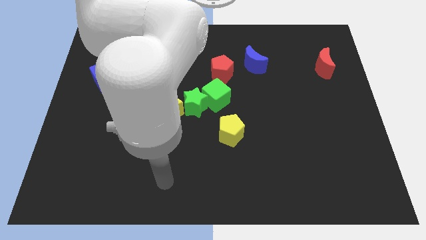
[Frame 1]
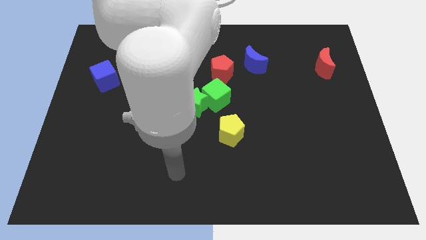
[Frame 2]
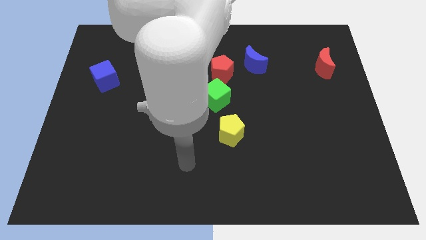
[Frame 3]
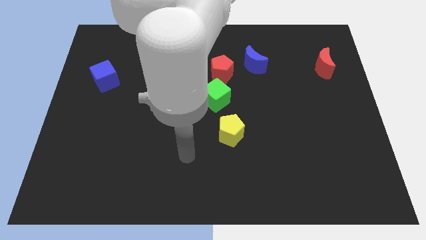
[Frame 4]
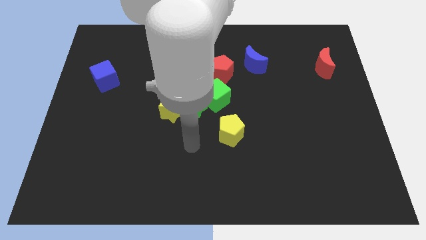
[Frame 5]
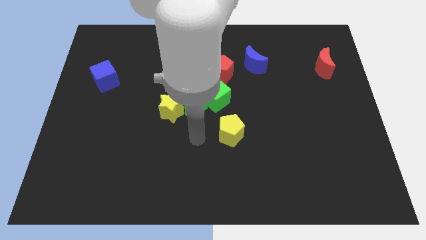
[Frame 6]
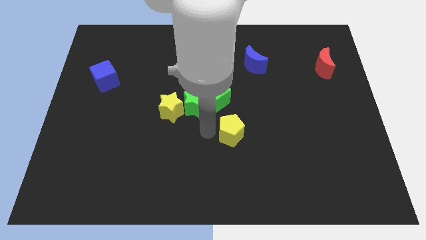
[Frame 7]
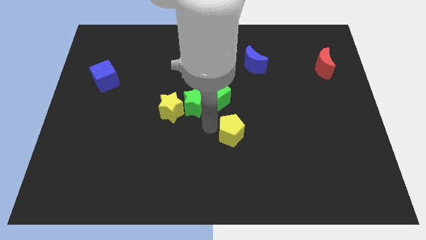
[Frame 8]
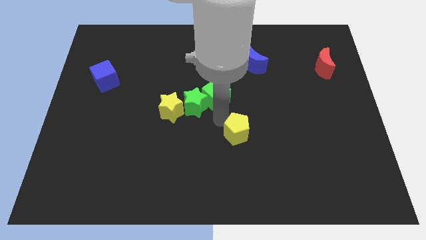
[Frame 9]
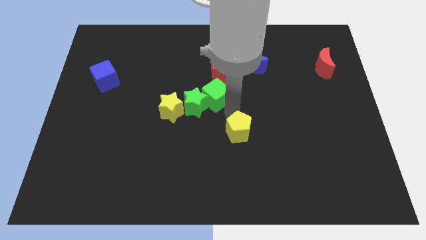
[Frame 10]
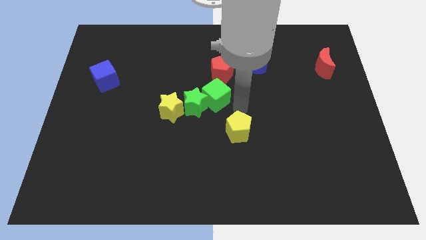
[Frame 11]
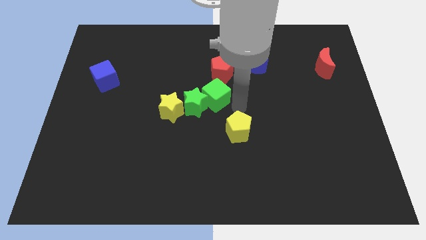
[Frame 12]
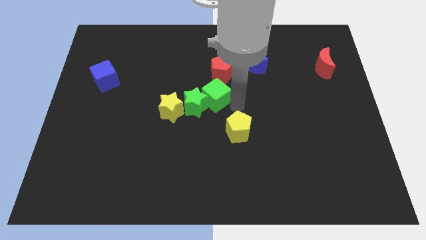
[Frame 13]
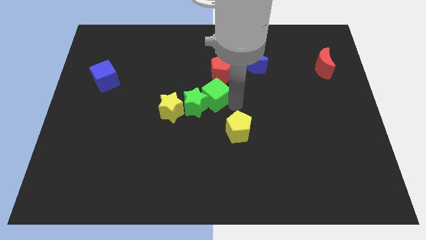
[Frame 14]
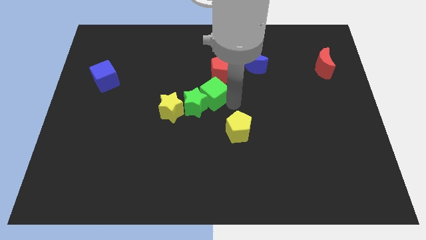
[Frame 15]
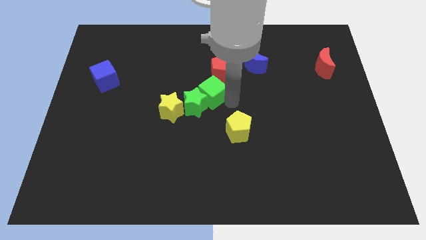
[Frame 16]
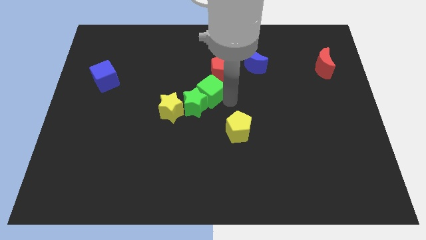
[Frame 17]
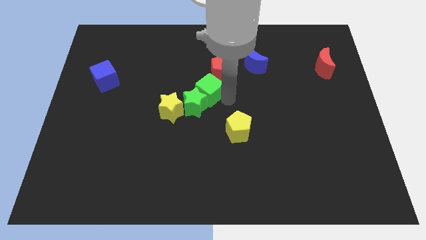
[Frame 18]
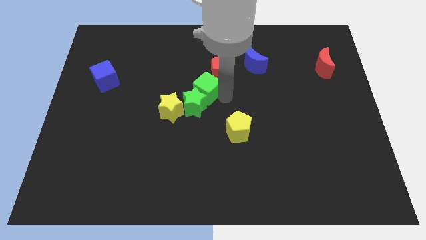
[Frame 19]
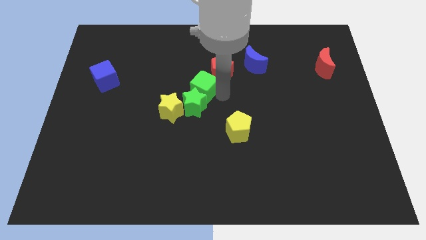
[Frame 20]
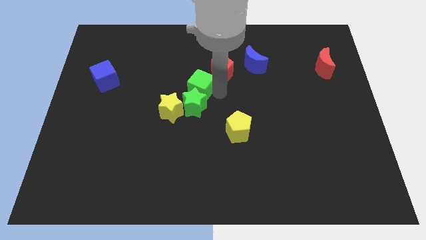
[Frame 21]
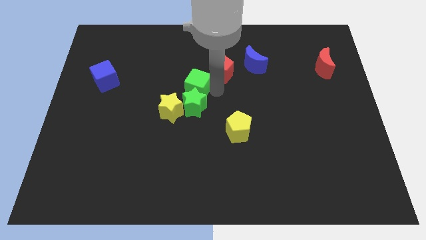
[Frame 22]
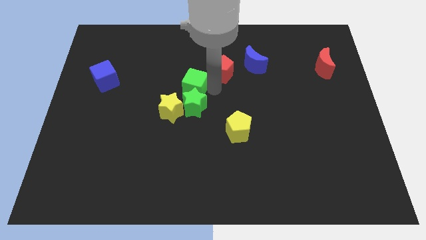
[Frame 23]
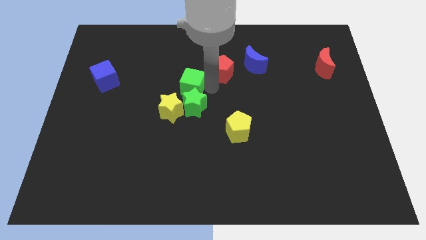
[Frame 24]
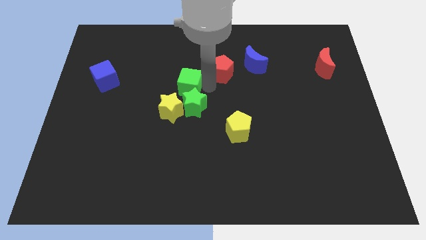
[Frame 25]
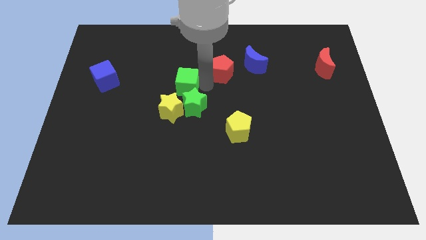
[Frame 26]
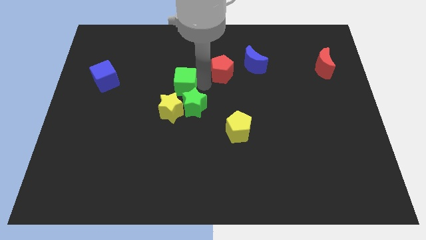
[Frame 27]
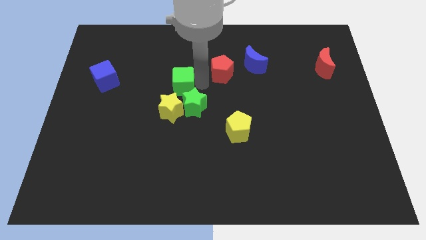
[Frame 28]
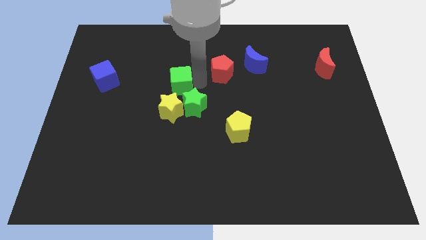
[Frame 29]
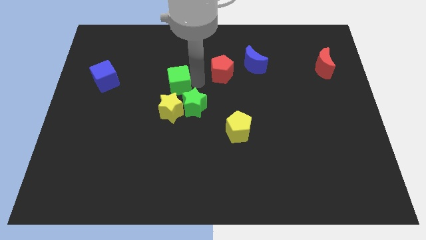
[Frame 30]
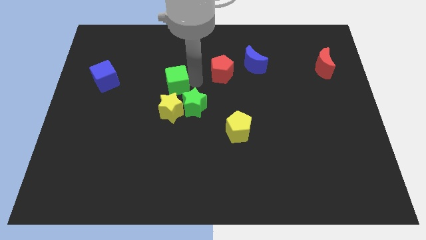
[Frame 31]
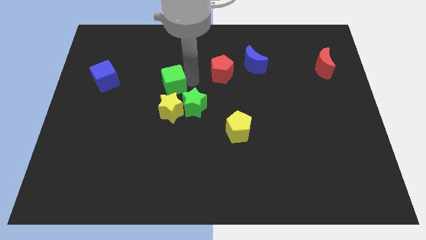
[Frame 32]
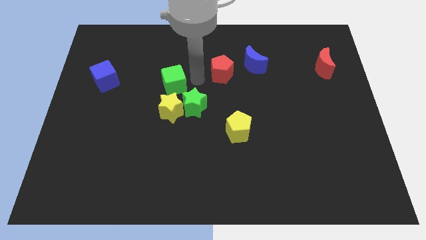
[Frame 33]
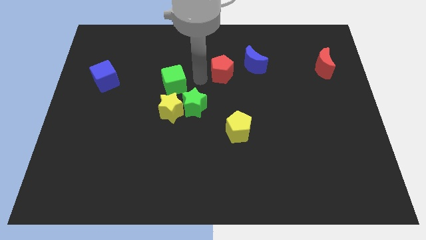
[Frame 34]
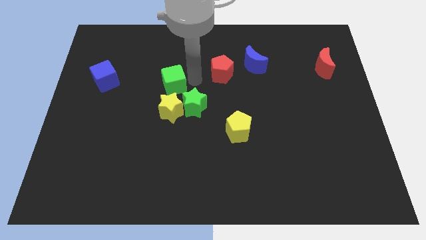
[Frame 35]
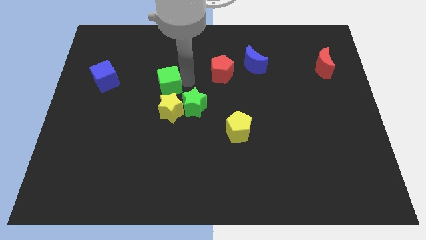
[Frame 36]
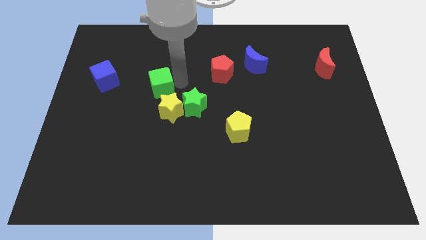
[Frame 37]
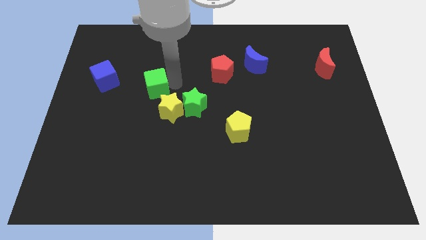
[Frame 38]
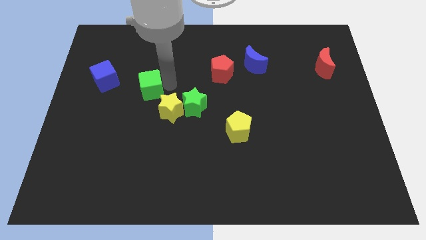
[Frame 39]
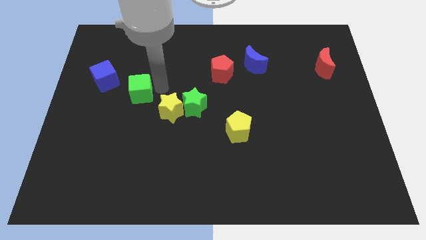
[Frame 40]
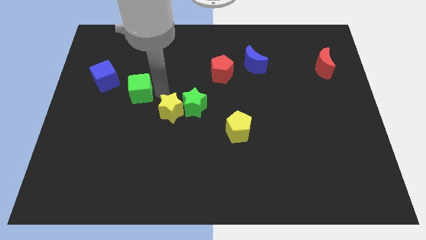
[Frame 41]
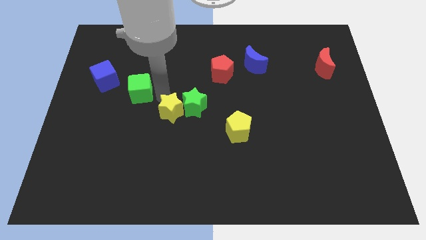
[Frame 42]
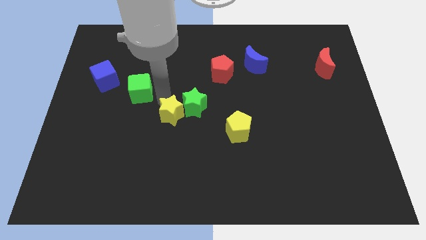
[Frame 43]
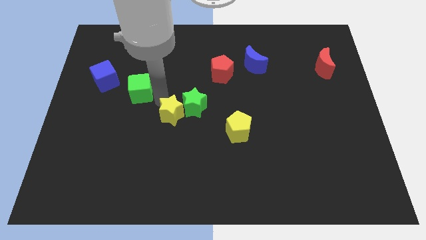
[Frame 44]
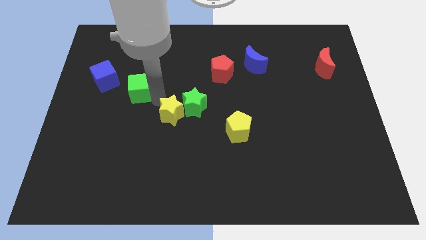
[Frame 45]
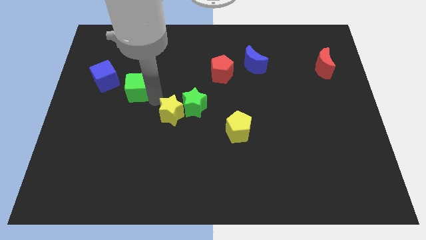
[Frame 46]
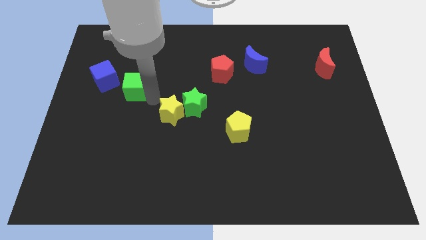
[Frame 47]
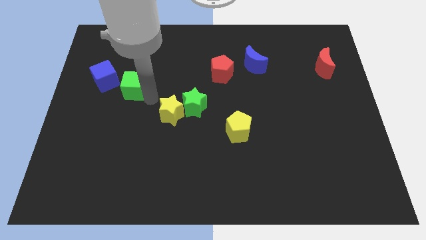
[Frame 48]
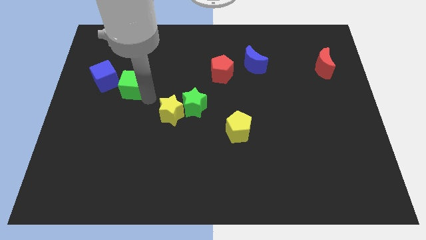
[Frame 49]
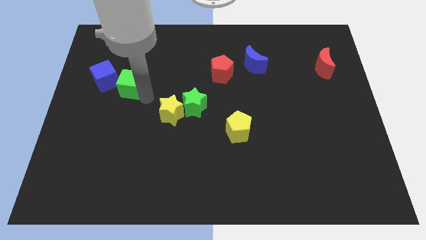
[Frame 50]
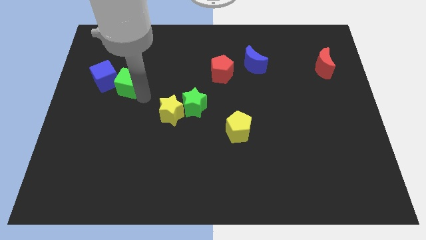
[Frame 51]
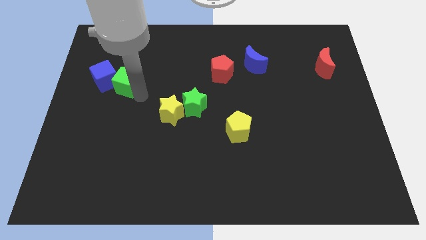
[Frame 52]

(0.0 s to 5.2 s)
put the green cube to the blue cube

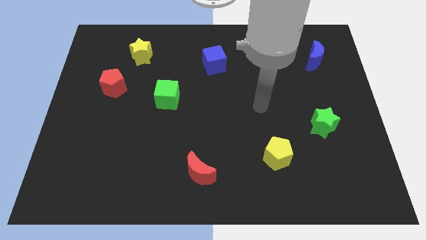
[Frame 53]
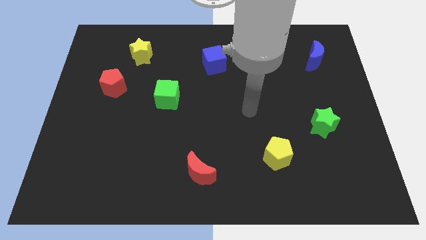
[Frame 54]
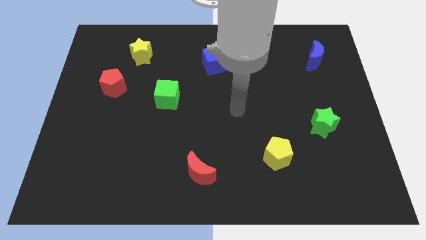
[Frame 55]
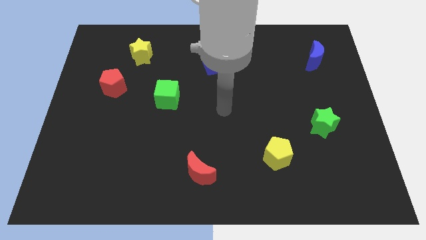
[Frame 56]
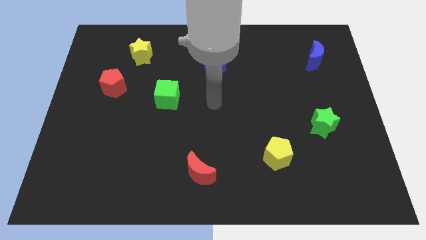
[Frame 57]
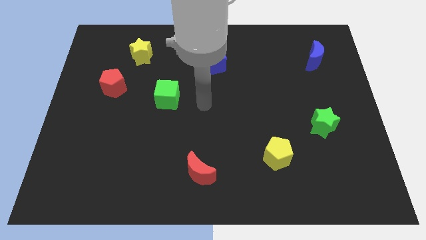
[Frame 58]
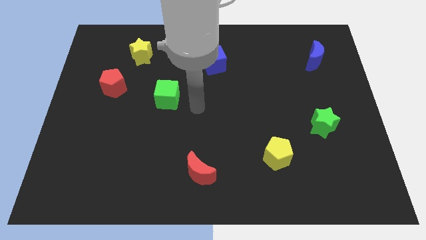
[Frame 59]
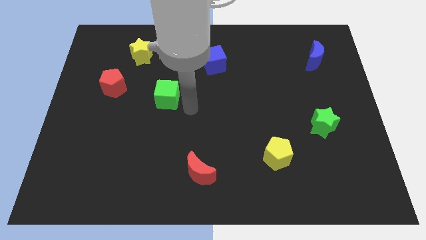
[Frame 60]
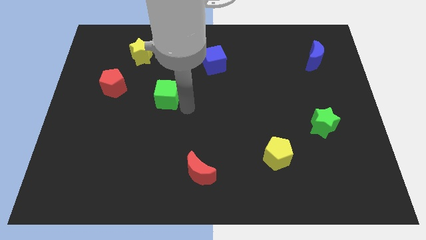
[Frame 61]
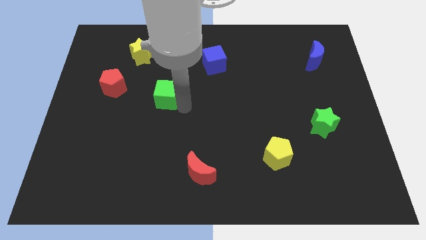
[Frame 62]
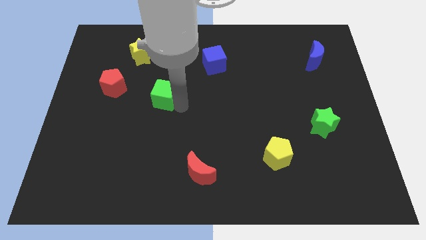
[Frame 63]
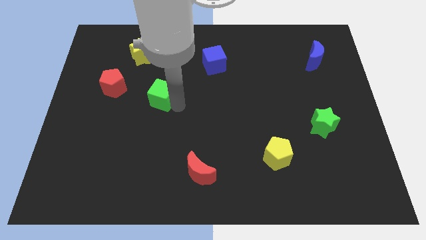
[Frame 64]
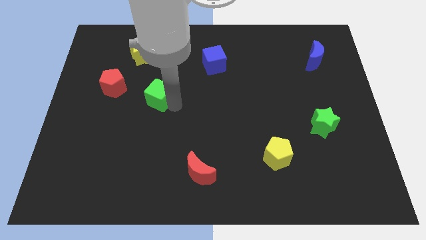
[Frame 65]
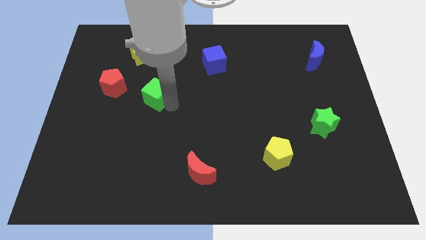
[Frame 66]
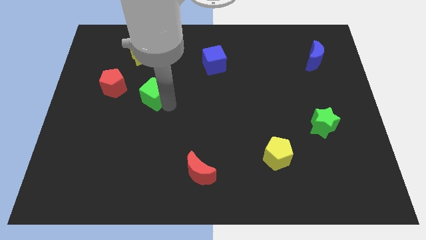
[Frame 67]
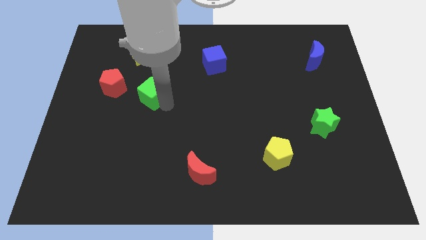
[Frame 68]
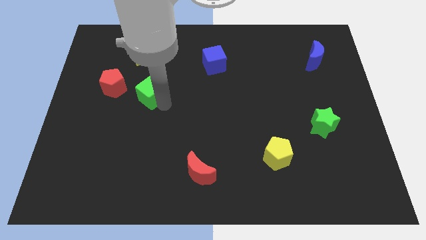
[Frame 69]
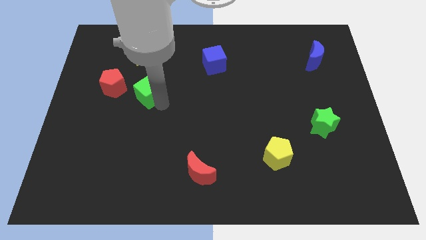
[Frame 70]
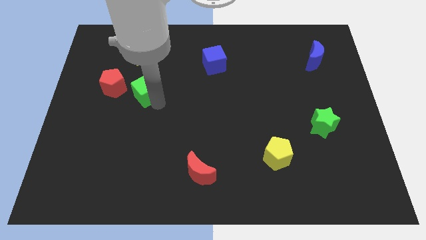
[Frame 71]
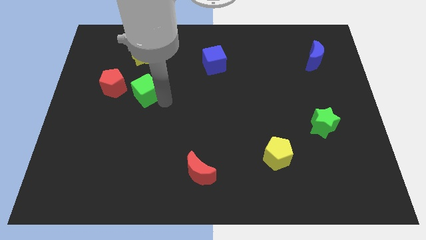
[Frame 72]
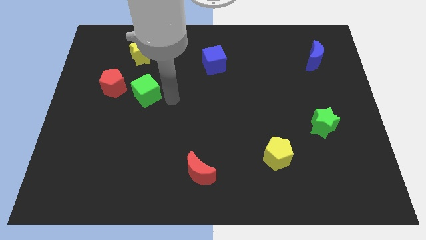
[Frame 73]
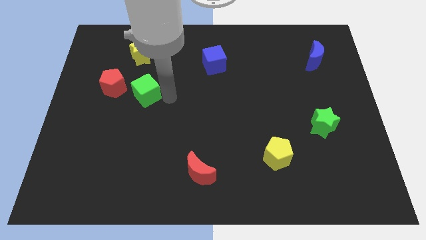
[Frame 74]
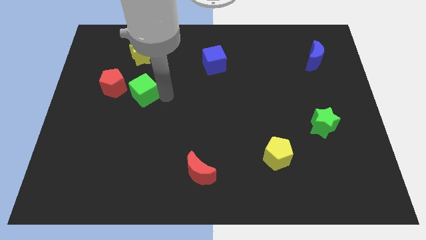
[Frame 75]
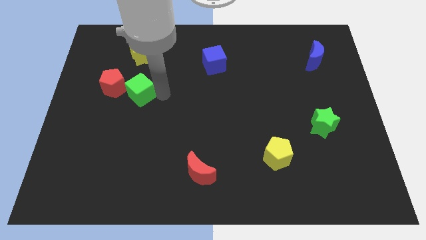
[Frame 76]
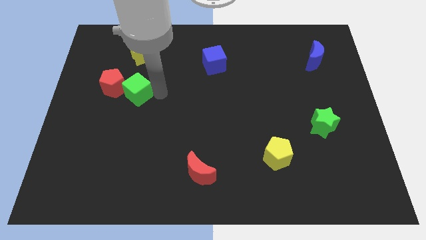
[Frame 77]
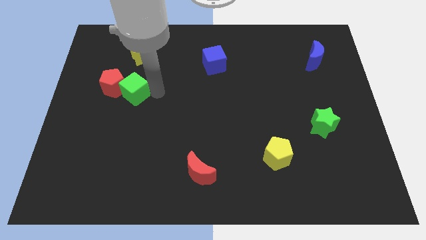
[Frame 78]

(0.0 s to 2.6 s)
move the green cube to the red pentagon
